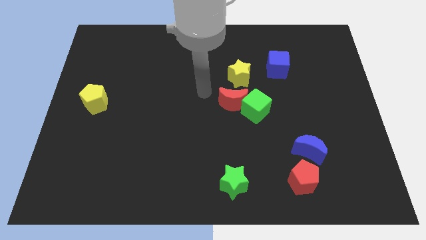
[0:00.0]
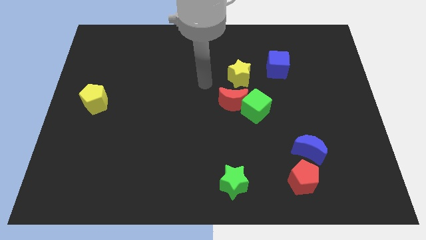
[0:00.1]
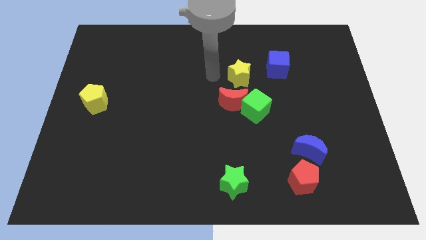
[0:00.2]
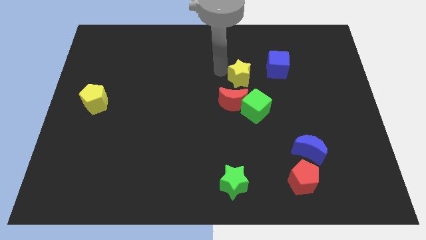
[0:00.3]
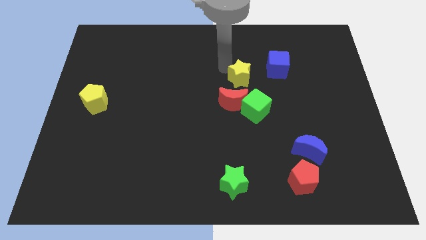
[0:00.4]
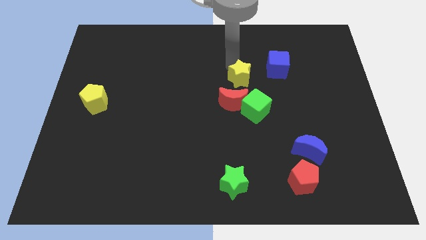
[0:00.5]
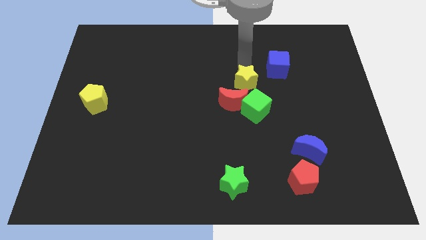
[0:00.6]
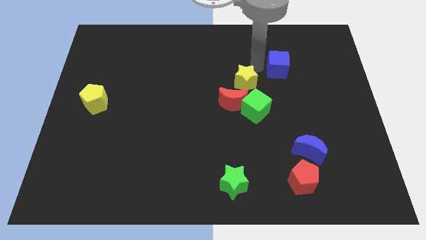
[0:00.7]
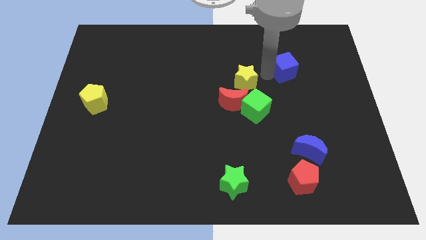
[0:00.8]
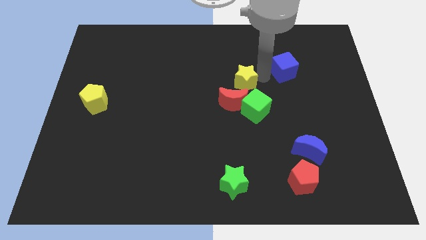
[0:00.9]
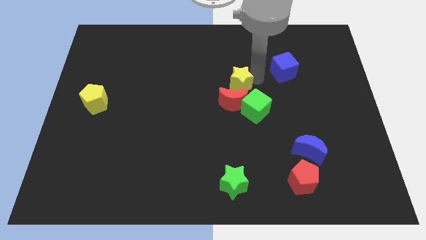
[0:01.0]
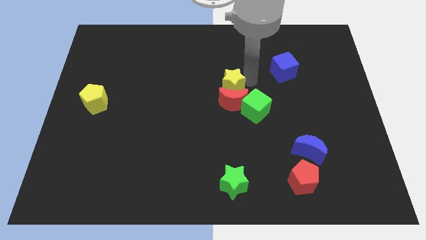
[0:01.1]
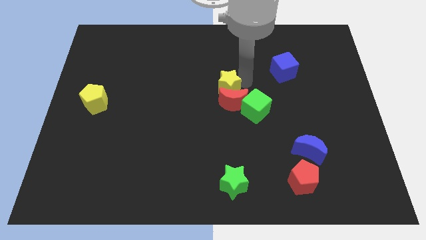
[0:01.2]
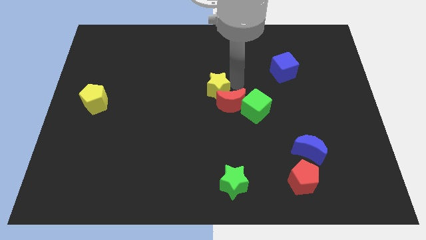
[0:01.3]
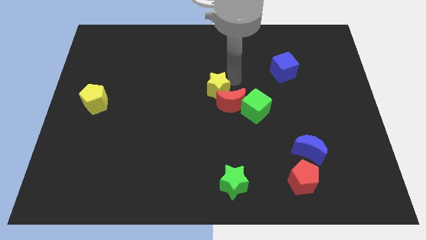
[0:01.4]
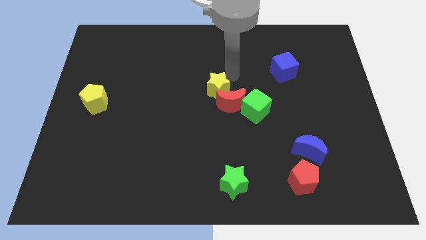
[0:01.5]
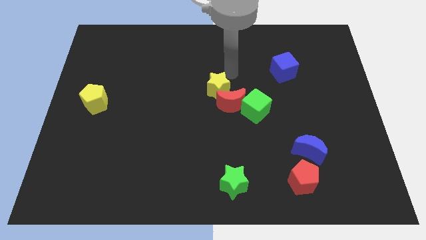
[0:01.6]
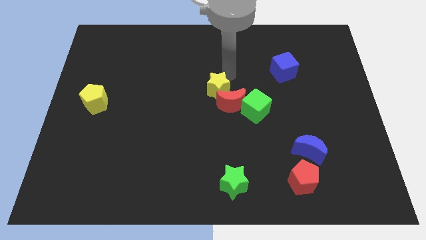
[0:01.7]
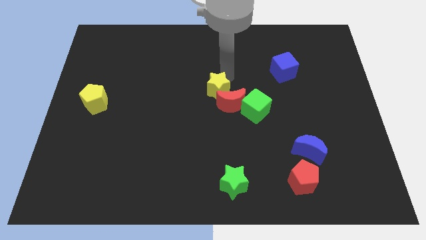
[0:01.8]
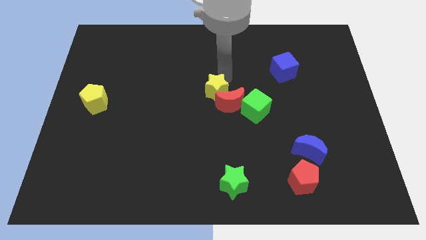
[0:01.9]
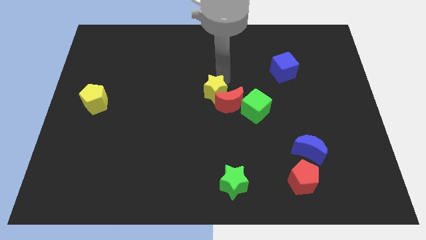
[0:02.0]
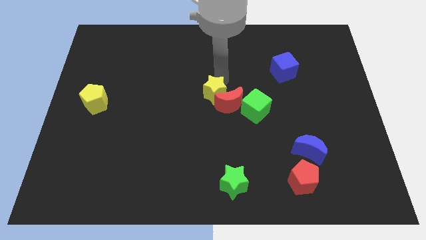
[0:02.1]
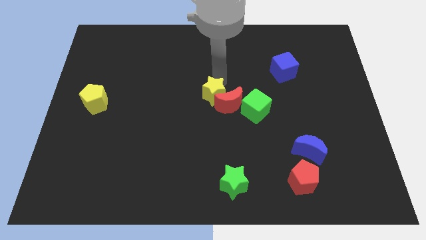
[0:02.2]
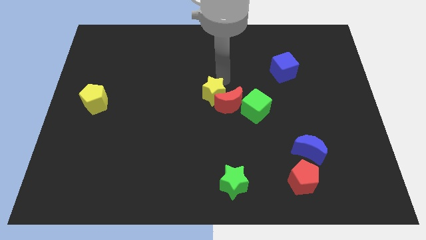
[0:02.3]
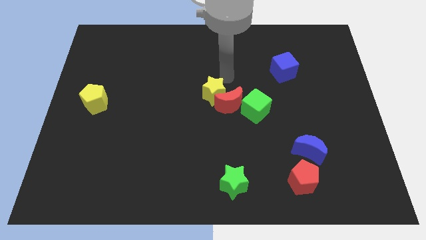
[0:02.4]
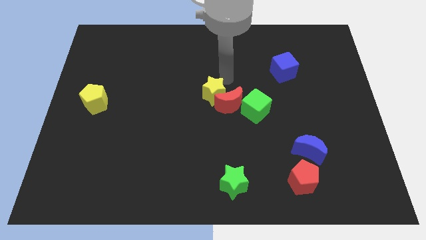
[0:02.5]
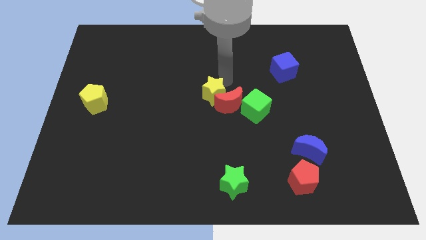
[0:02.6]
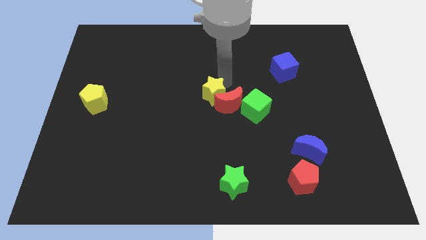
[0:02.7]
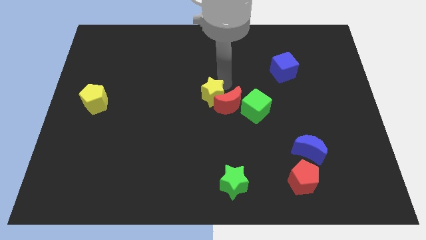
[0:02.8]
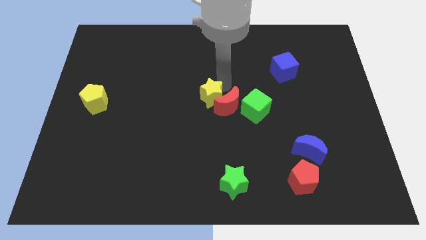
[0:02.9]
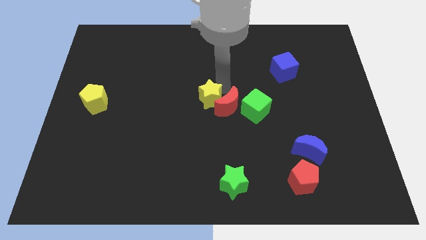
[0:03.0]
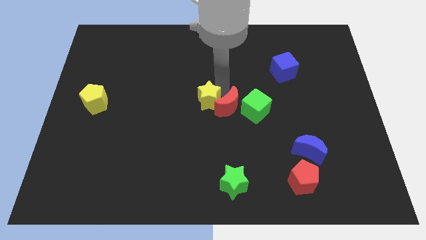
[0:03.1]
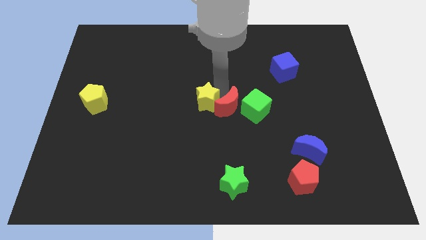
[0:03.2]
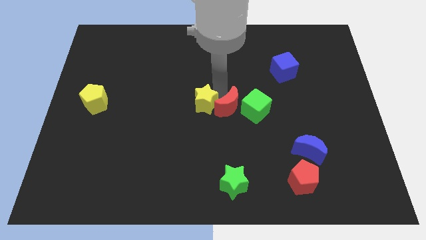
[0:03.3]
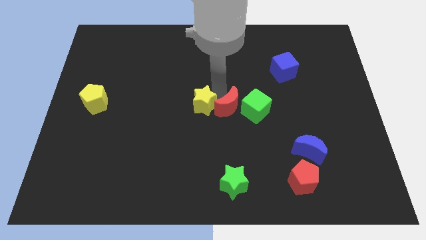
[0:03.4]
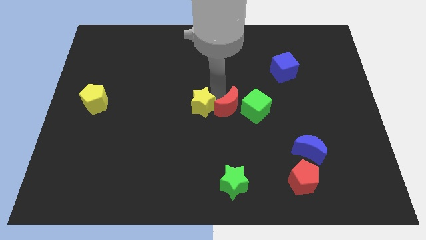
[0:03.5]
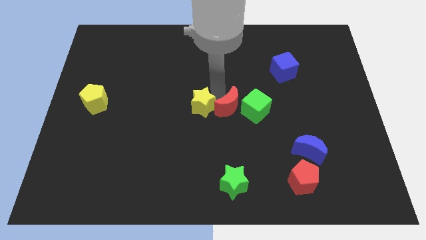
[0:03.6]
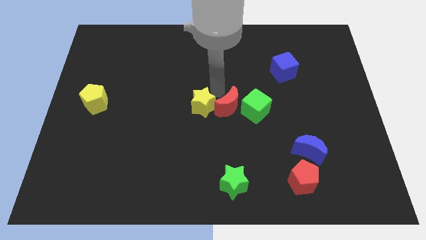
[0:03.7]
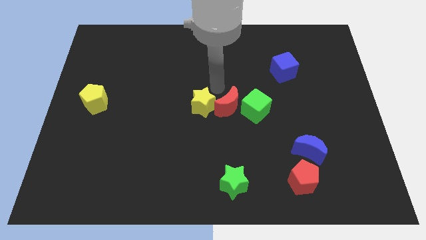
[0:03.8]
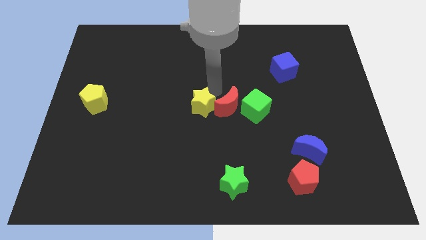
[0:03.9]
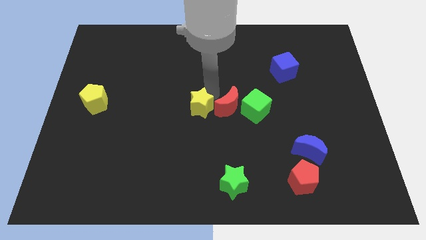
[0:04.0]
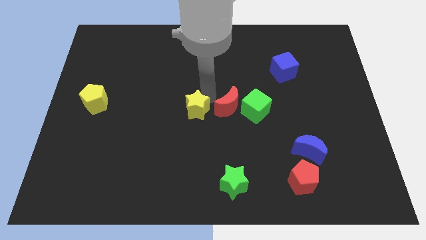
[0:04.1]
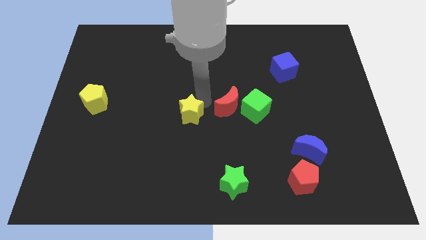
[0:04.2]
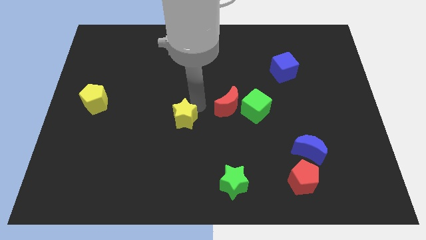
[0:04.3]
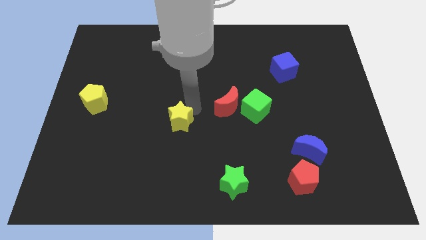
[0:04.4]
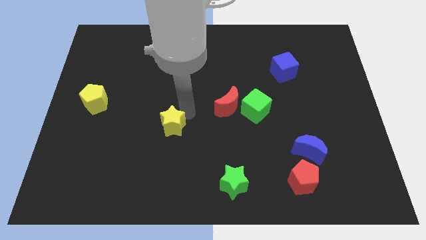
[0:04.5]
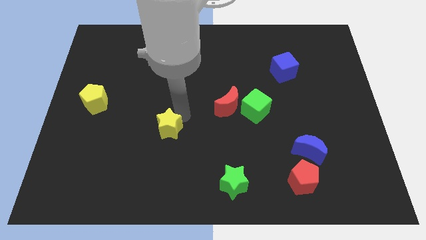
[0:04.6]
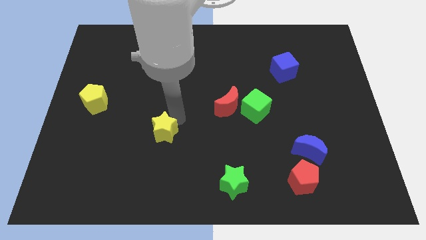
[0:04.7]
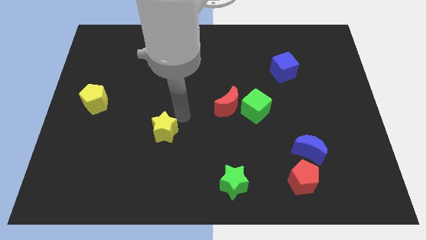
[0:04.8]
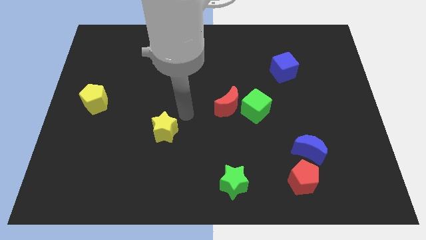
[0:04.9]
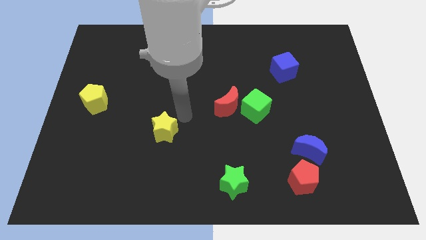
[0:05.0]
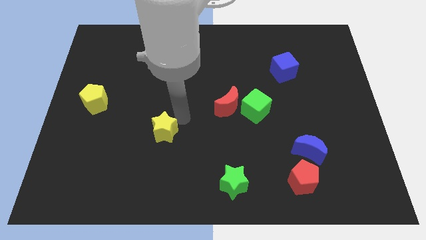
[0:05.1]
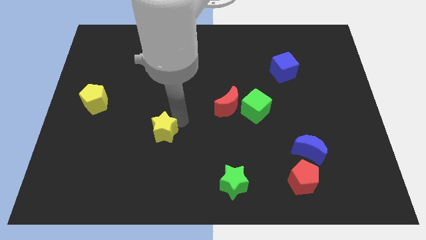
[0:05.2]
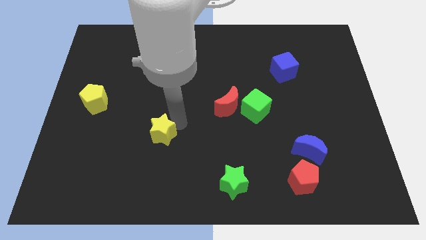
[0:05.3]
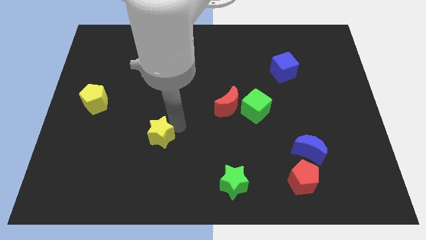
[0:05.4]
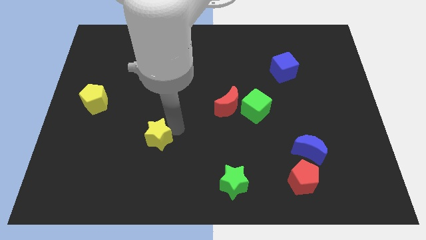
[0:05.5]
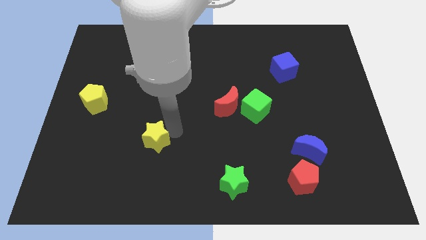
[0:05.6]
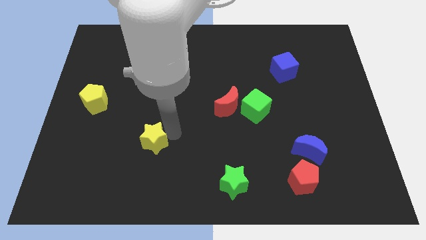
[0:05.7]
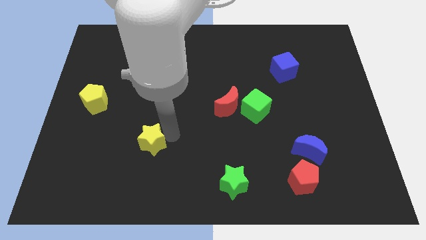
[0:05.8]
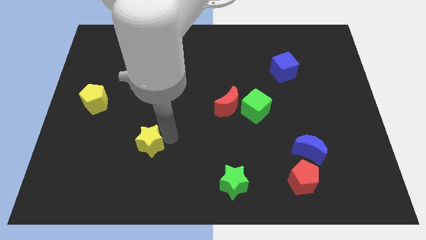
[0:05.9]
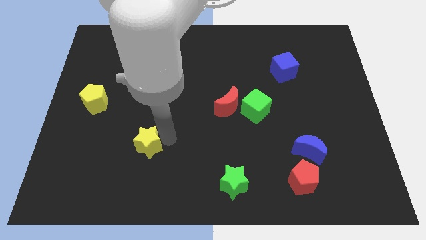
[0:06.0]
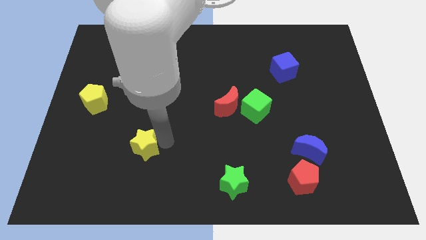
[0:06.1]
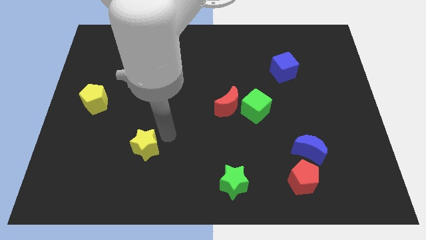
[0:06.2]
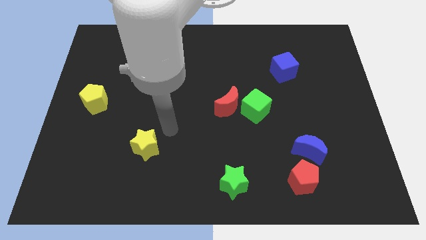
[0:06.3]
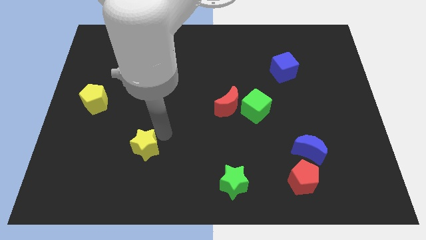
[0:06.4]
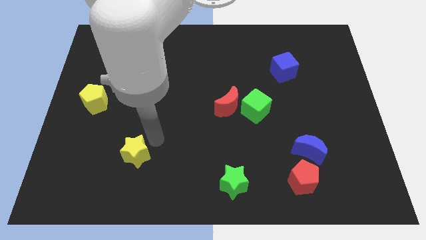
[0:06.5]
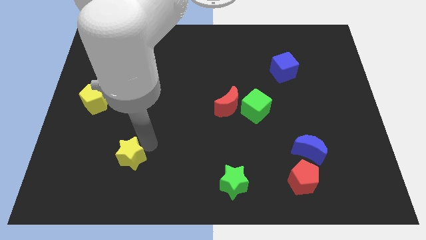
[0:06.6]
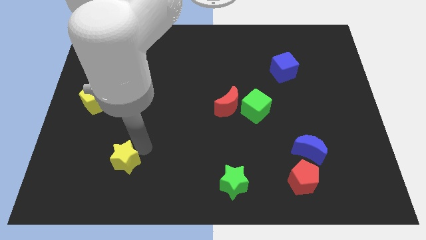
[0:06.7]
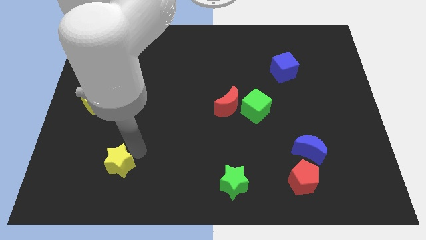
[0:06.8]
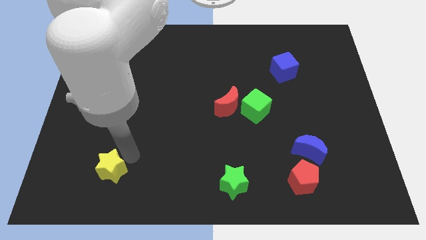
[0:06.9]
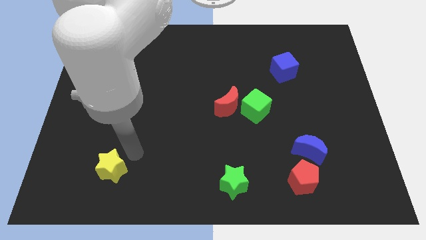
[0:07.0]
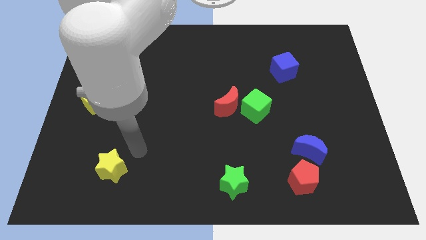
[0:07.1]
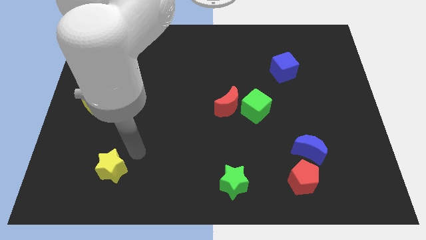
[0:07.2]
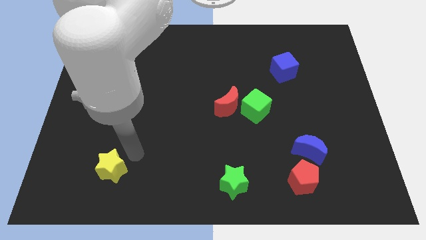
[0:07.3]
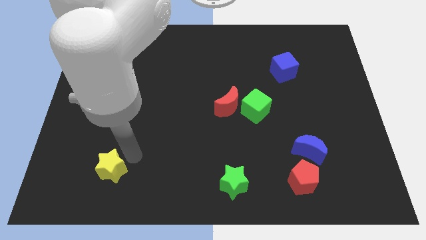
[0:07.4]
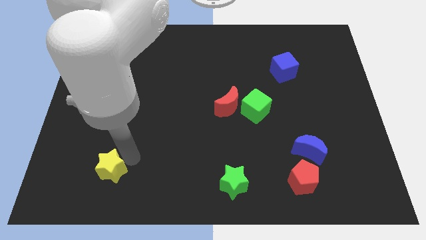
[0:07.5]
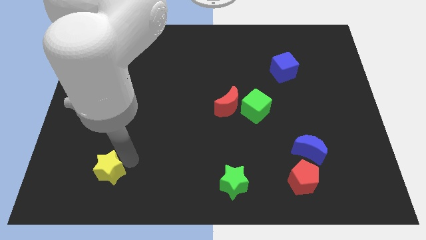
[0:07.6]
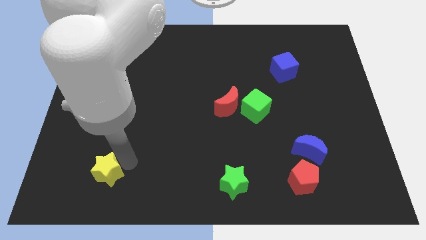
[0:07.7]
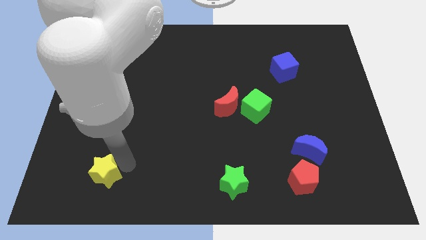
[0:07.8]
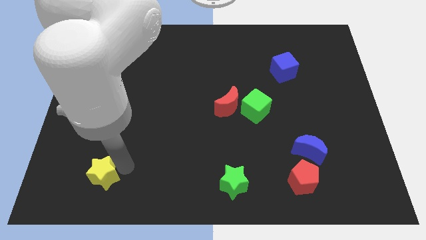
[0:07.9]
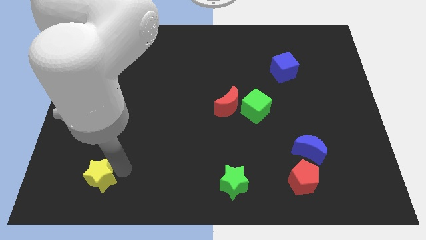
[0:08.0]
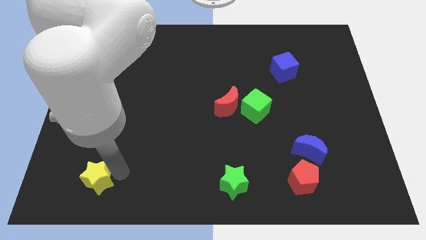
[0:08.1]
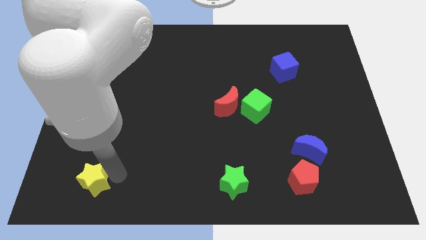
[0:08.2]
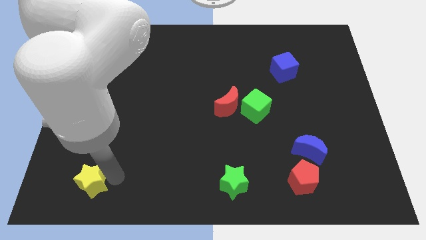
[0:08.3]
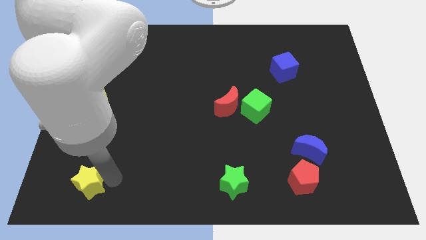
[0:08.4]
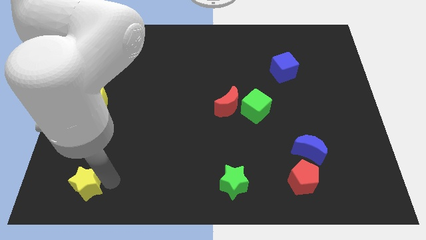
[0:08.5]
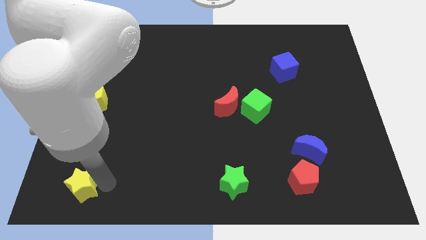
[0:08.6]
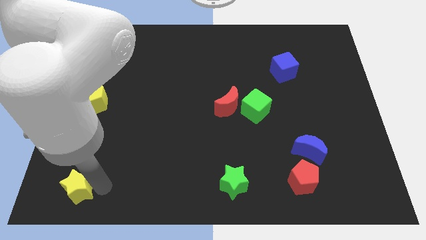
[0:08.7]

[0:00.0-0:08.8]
slide the yellow star to the lower left corner
